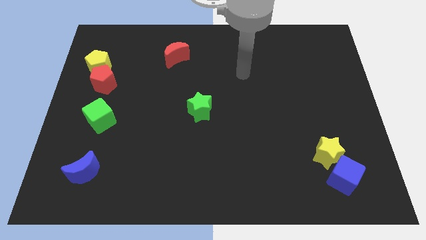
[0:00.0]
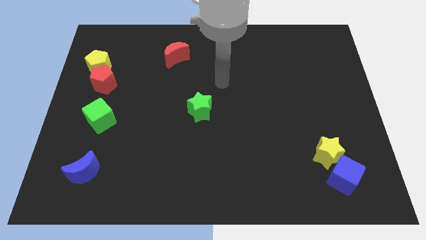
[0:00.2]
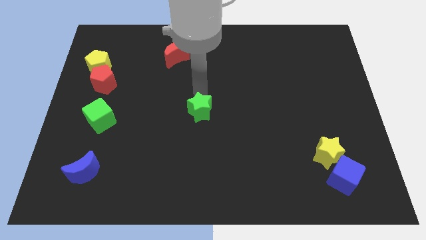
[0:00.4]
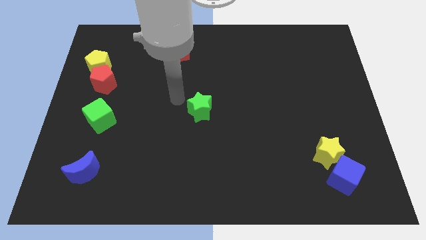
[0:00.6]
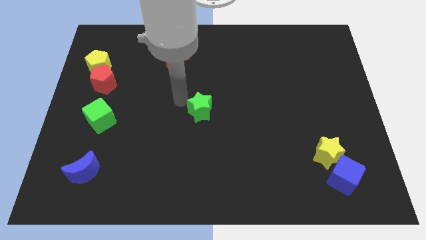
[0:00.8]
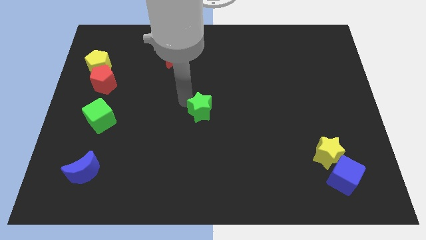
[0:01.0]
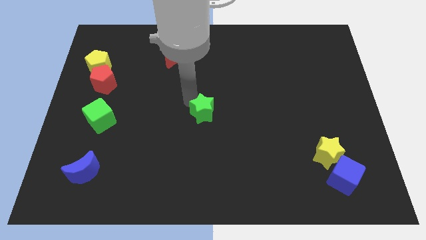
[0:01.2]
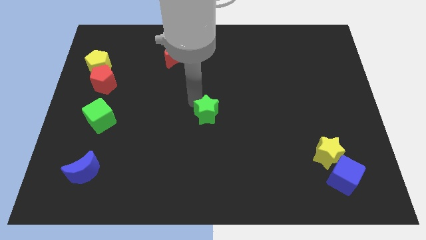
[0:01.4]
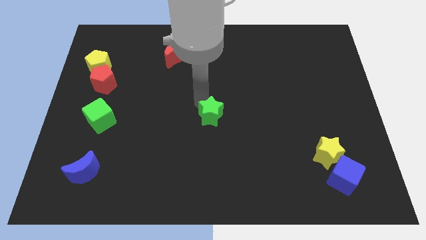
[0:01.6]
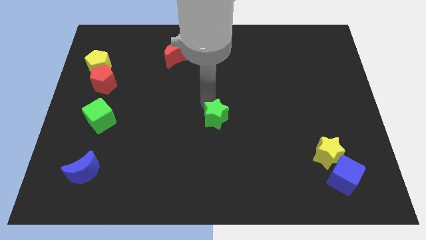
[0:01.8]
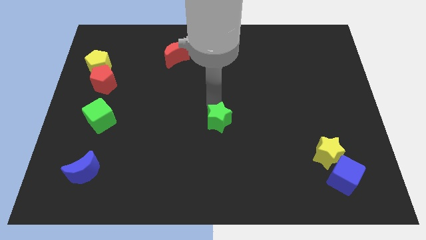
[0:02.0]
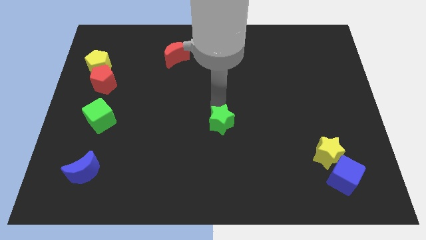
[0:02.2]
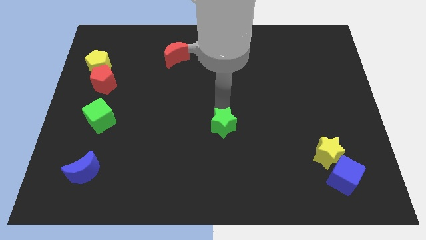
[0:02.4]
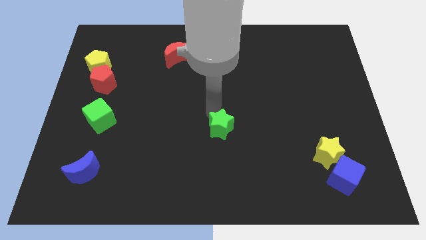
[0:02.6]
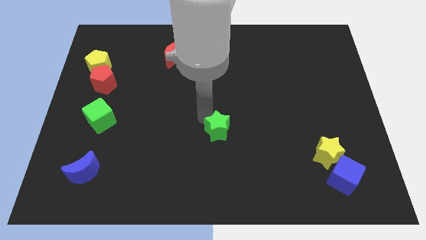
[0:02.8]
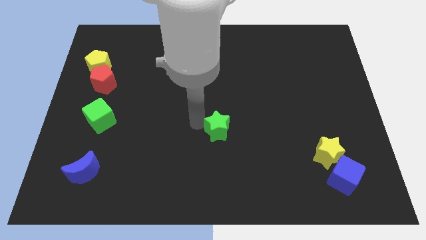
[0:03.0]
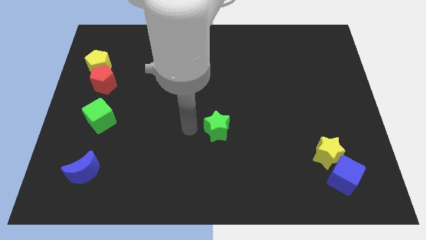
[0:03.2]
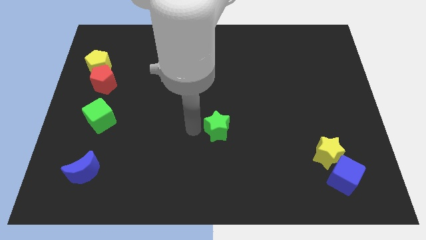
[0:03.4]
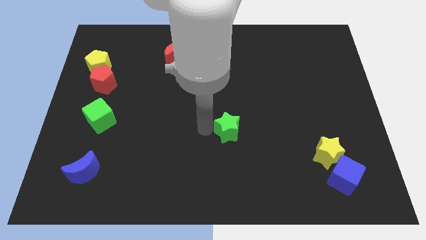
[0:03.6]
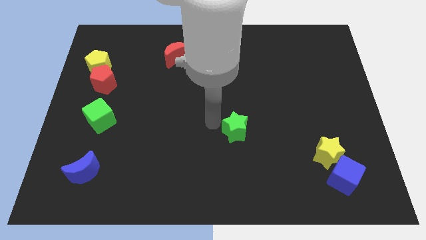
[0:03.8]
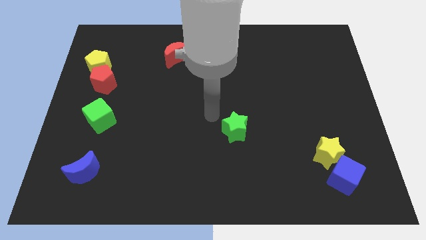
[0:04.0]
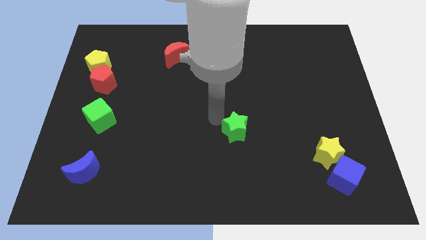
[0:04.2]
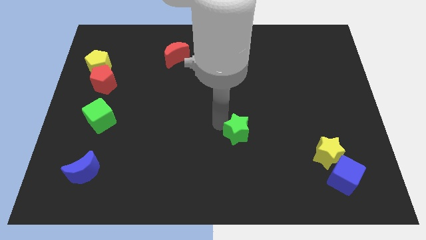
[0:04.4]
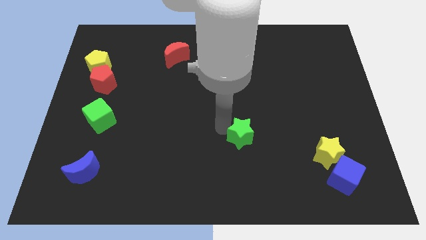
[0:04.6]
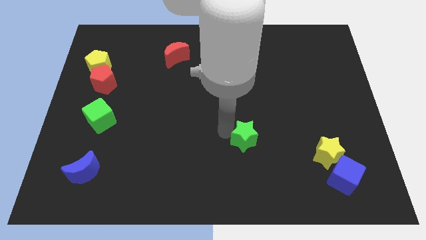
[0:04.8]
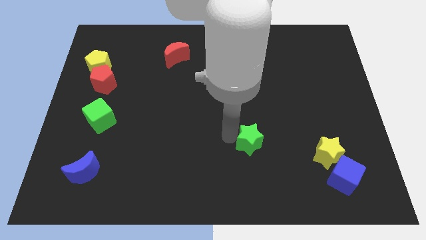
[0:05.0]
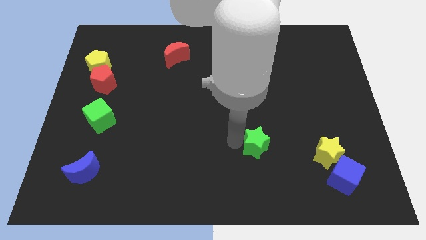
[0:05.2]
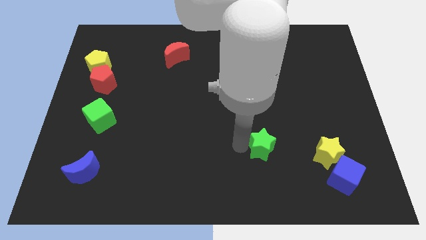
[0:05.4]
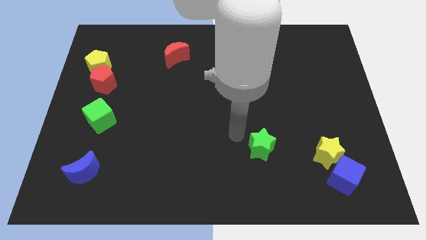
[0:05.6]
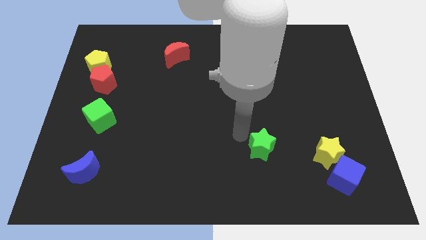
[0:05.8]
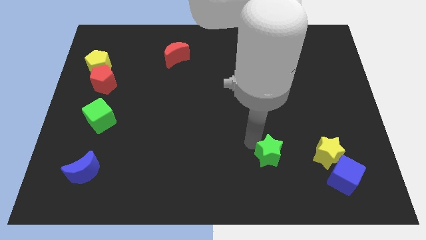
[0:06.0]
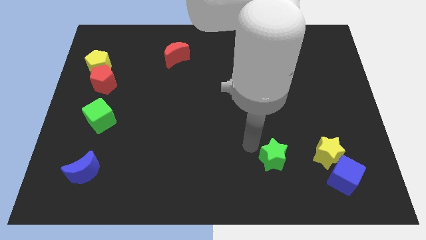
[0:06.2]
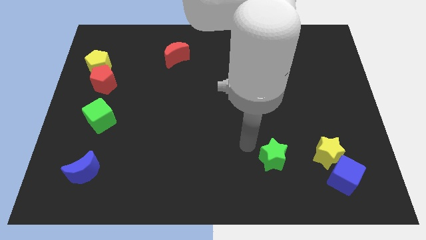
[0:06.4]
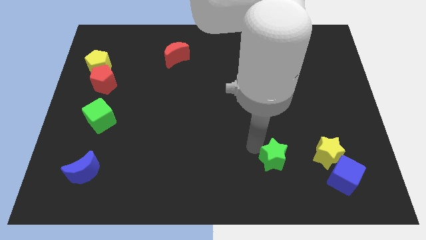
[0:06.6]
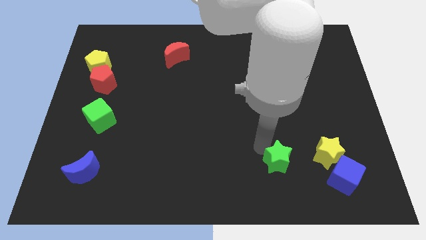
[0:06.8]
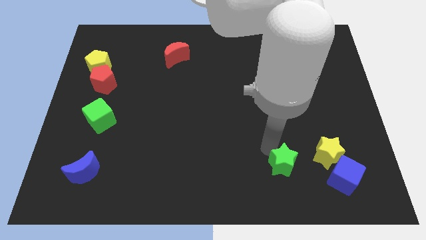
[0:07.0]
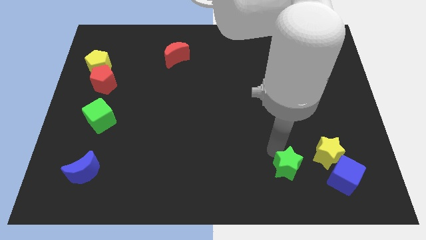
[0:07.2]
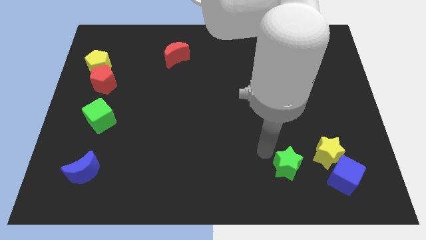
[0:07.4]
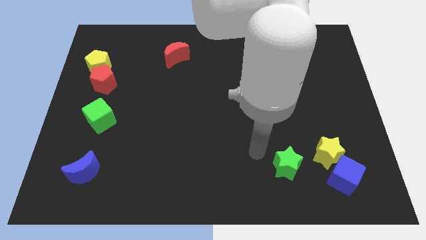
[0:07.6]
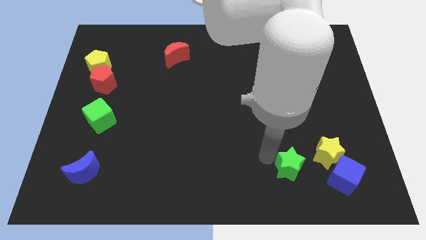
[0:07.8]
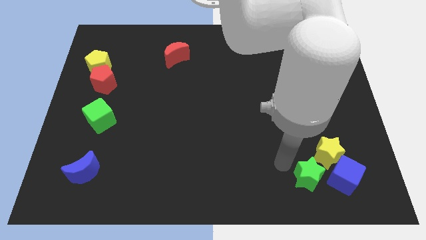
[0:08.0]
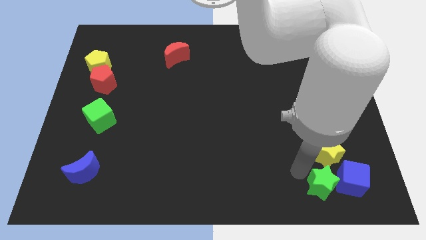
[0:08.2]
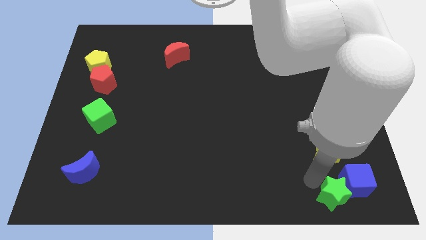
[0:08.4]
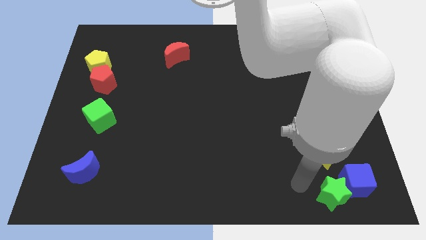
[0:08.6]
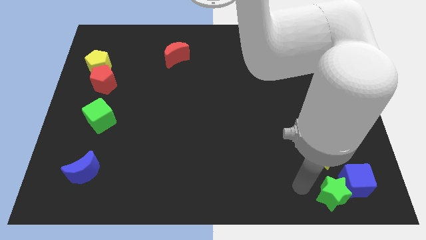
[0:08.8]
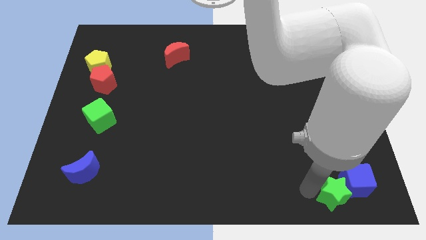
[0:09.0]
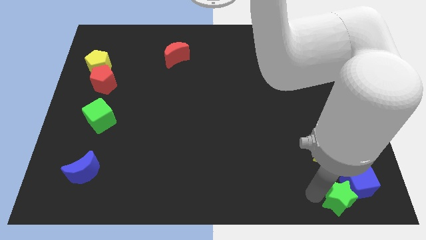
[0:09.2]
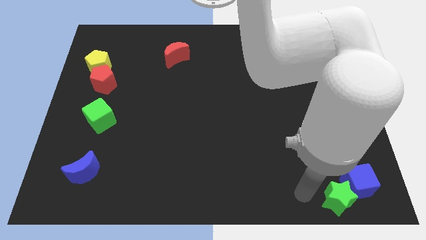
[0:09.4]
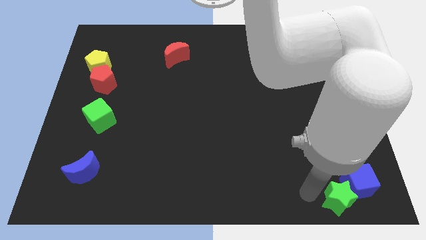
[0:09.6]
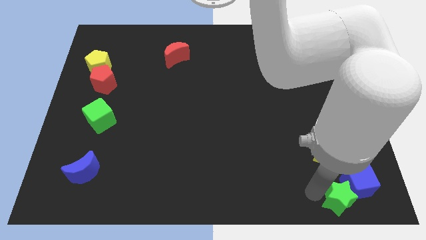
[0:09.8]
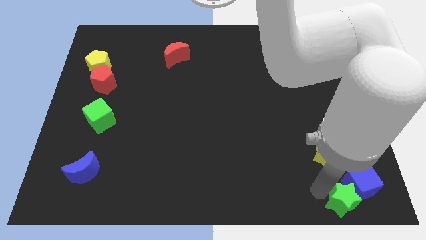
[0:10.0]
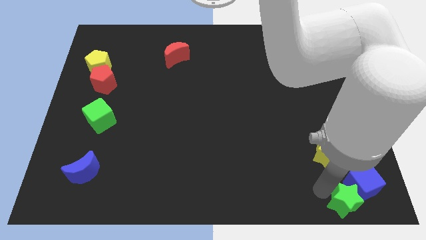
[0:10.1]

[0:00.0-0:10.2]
slide the green star to the bottom right corner

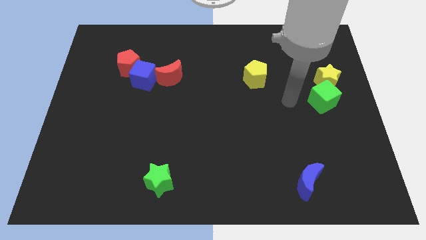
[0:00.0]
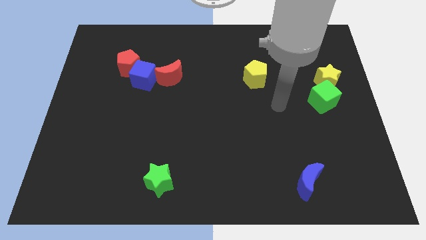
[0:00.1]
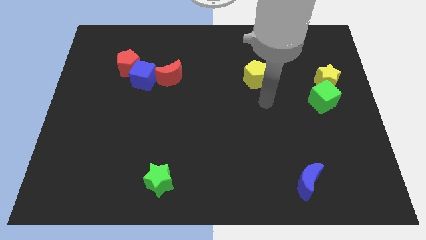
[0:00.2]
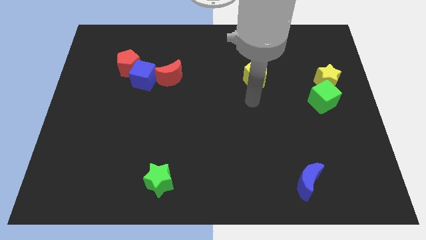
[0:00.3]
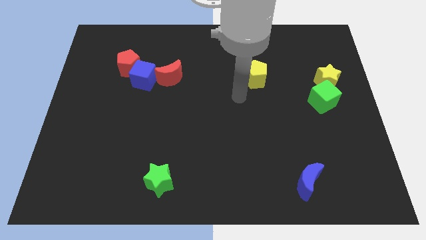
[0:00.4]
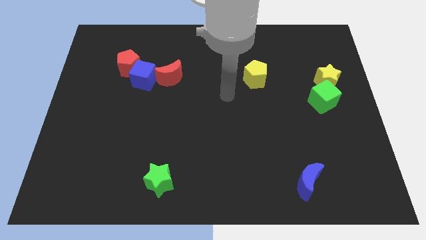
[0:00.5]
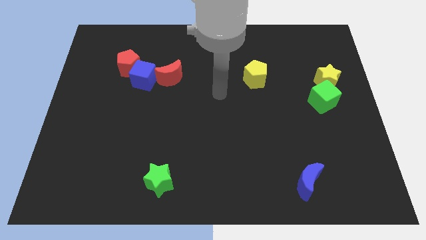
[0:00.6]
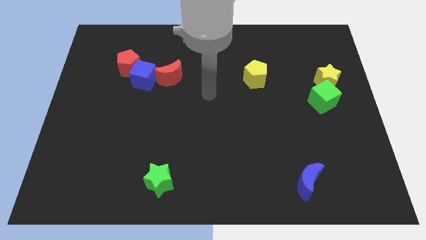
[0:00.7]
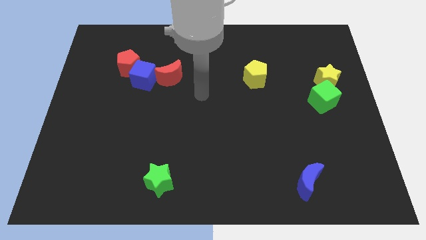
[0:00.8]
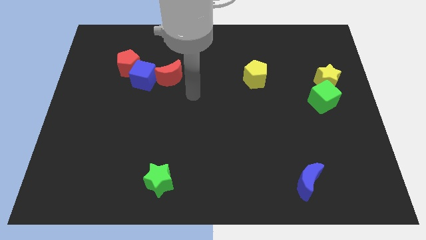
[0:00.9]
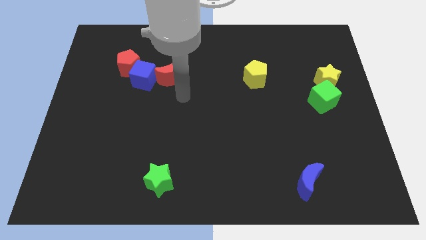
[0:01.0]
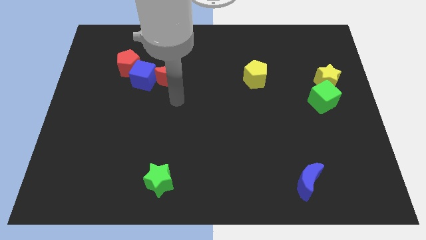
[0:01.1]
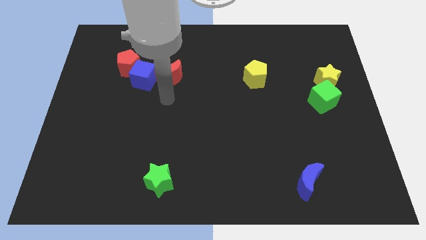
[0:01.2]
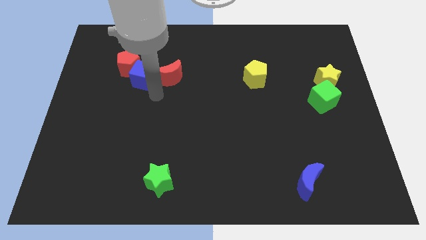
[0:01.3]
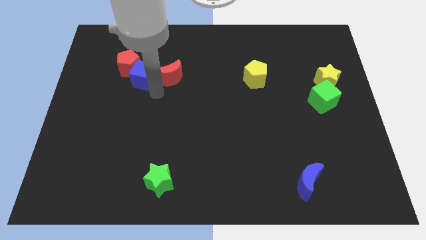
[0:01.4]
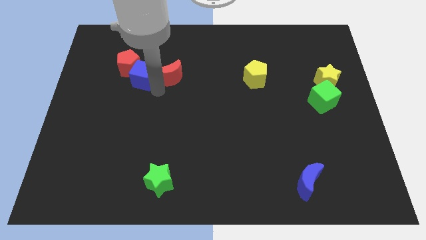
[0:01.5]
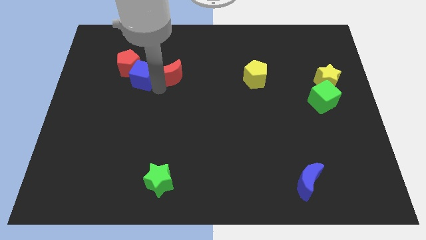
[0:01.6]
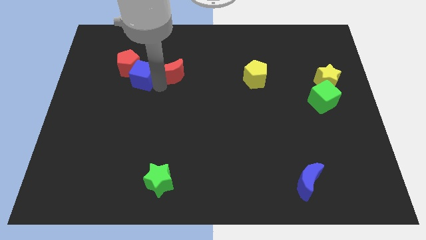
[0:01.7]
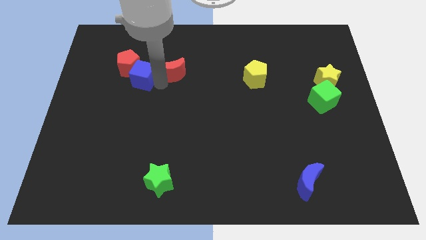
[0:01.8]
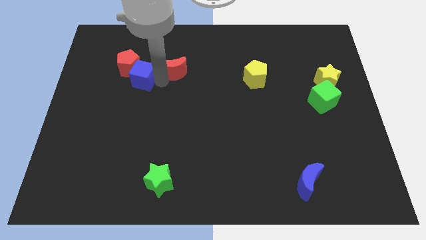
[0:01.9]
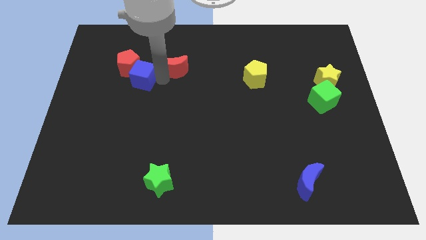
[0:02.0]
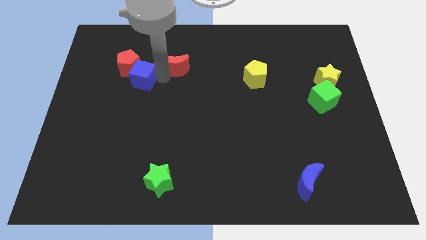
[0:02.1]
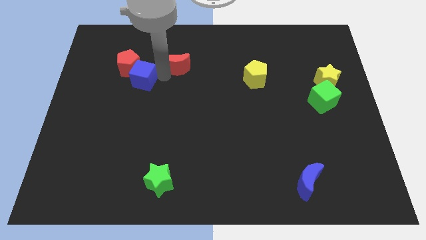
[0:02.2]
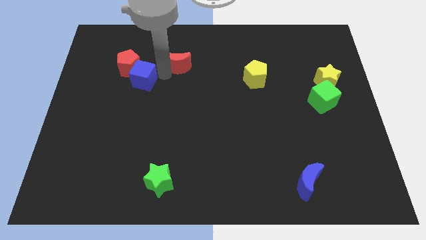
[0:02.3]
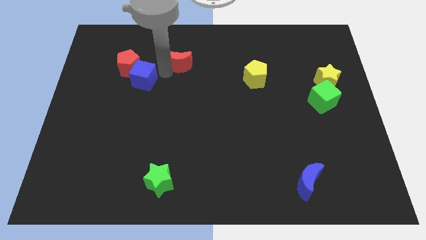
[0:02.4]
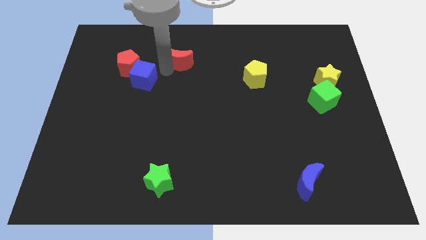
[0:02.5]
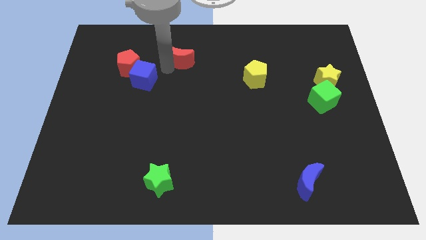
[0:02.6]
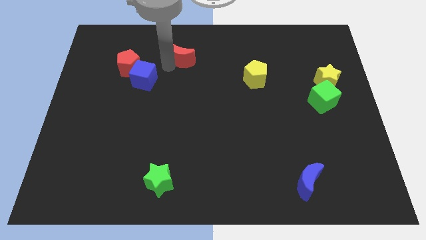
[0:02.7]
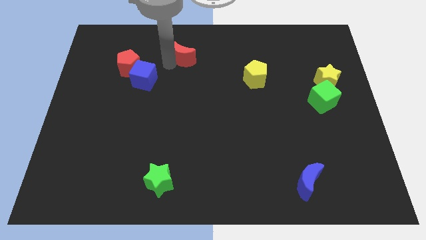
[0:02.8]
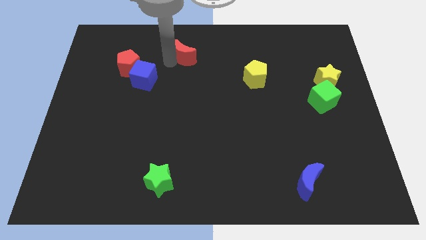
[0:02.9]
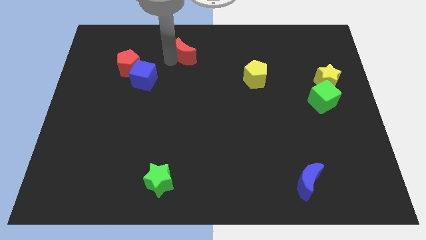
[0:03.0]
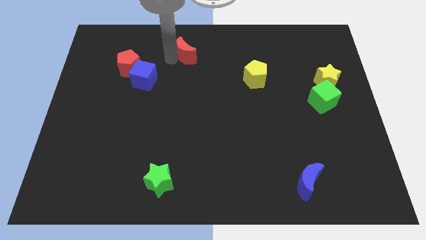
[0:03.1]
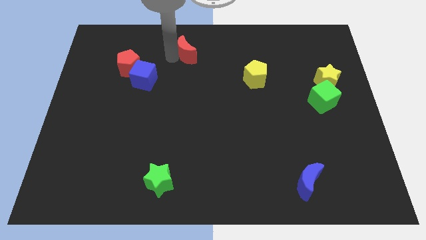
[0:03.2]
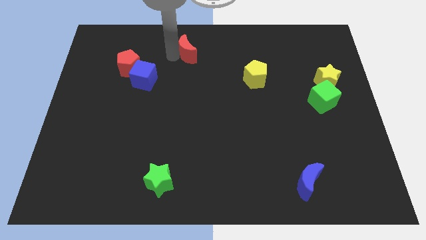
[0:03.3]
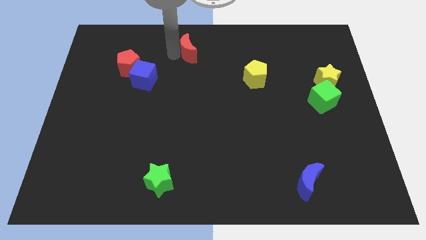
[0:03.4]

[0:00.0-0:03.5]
put the red moon to the top side
